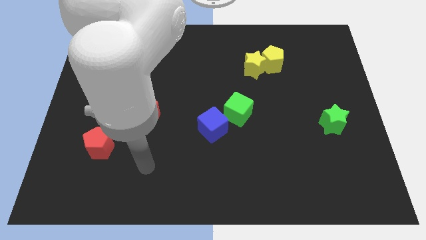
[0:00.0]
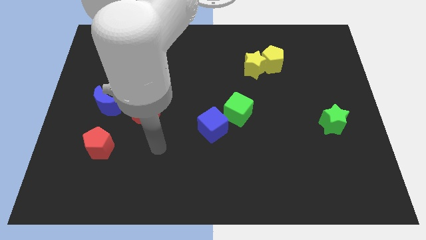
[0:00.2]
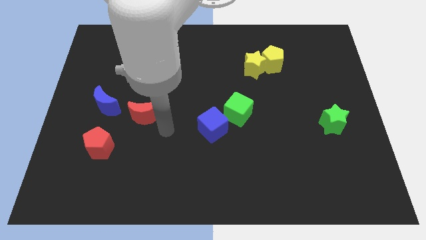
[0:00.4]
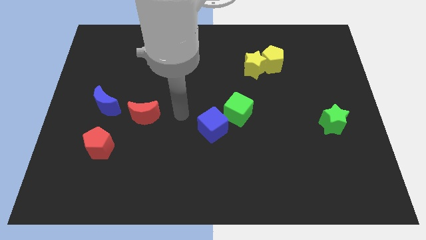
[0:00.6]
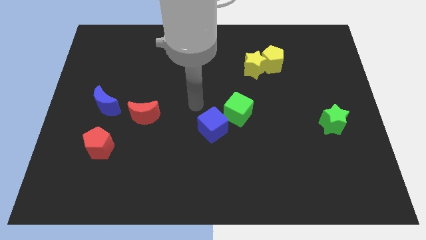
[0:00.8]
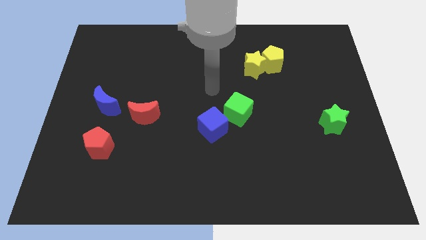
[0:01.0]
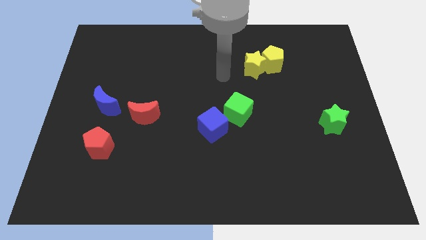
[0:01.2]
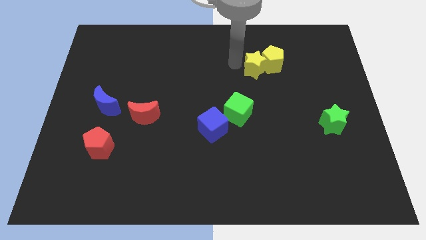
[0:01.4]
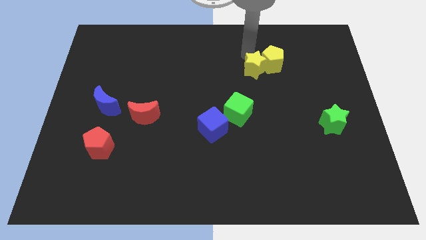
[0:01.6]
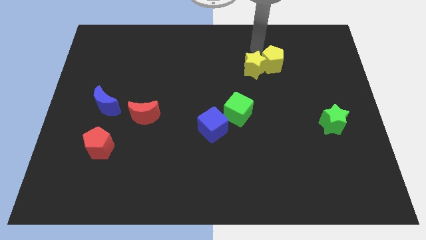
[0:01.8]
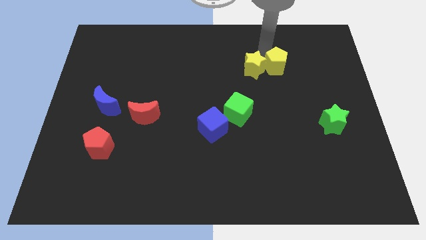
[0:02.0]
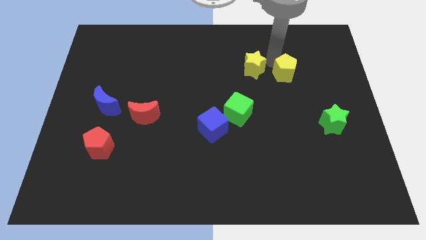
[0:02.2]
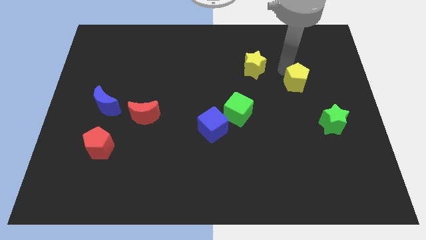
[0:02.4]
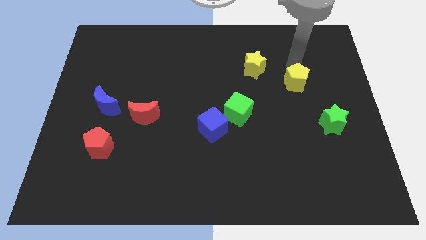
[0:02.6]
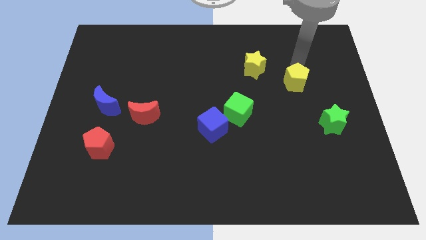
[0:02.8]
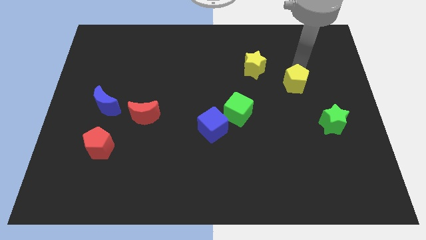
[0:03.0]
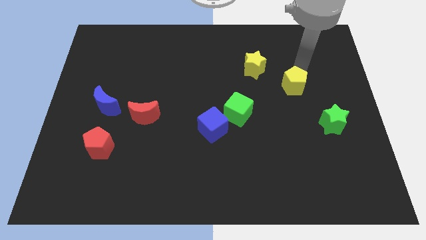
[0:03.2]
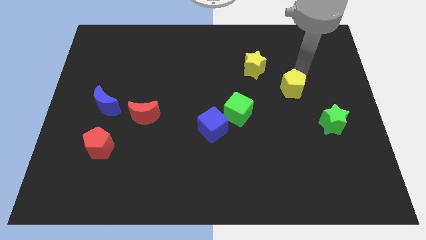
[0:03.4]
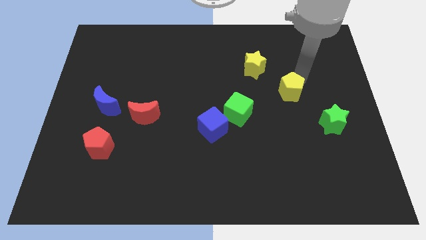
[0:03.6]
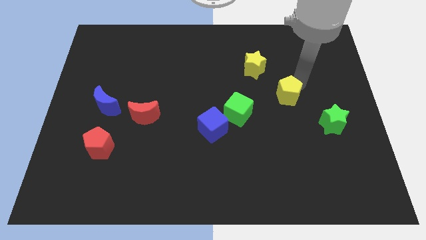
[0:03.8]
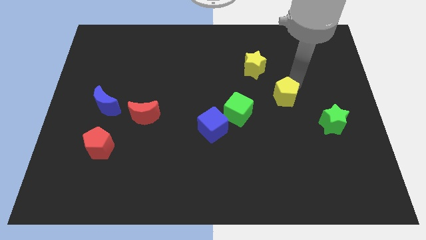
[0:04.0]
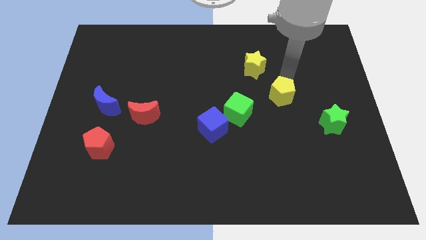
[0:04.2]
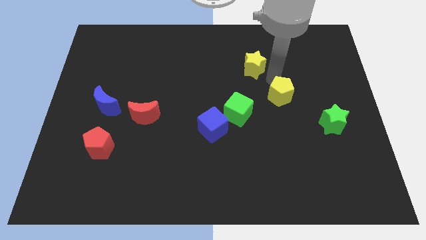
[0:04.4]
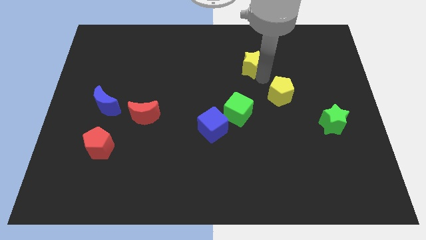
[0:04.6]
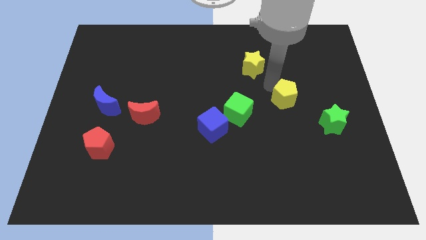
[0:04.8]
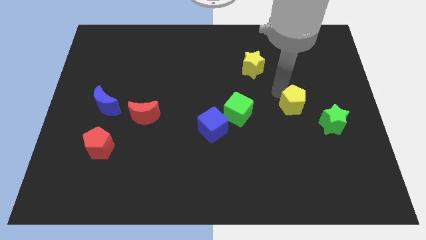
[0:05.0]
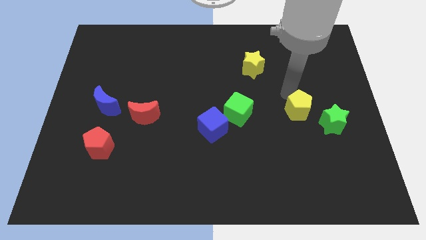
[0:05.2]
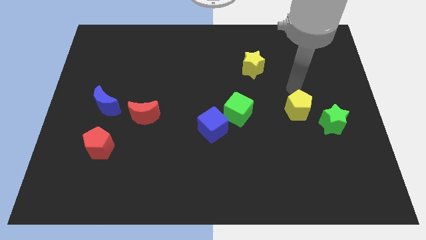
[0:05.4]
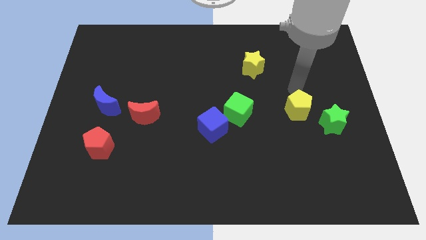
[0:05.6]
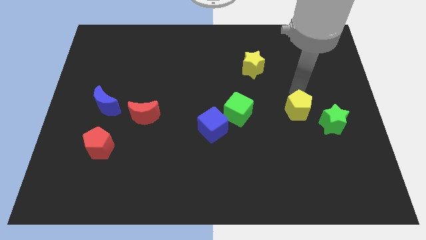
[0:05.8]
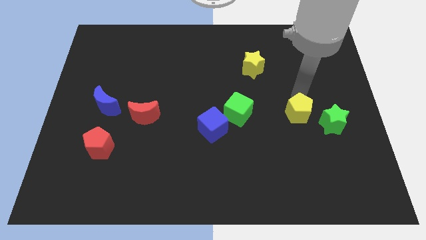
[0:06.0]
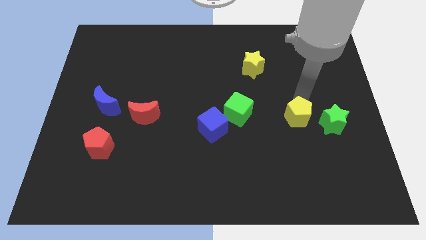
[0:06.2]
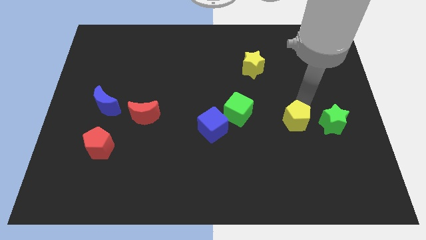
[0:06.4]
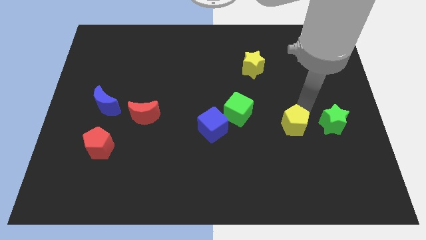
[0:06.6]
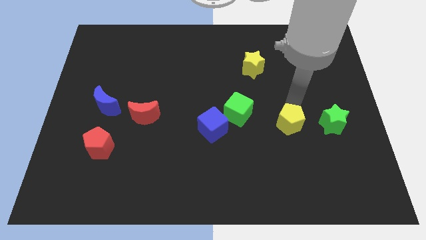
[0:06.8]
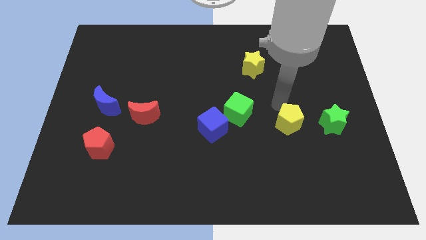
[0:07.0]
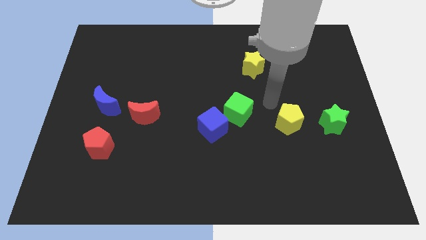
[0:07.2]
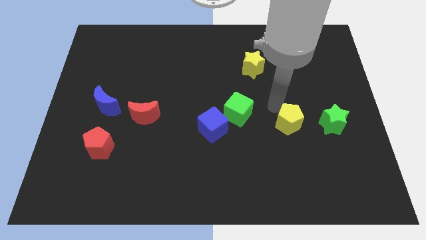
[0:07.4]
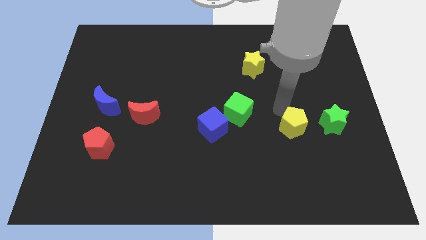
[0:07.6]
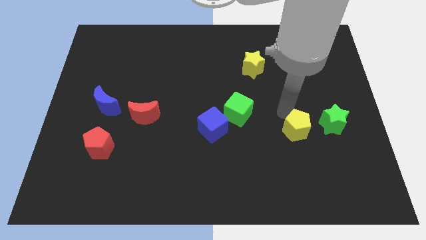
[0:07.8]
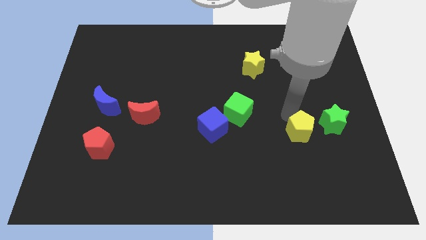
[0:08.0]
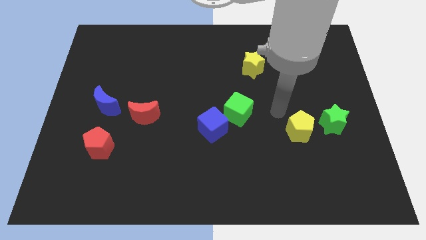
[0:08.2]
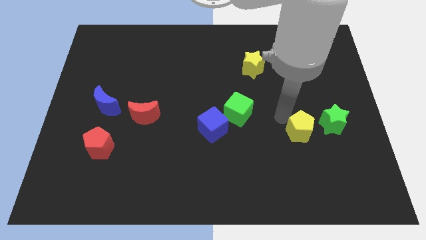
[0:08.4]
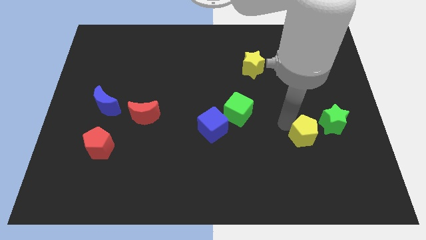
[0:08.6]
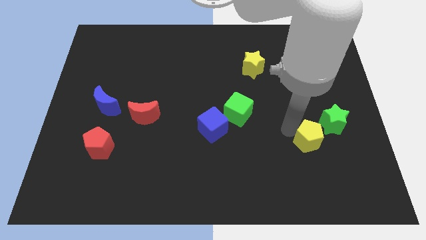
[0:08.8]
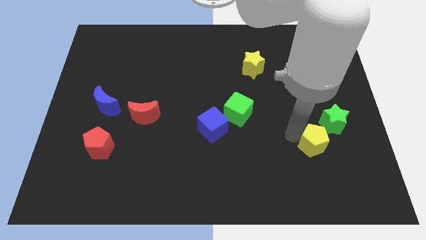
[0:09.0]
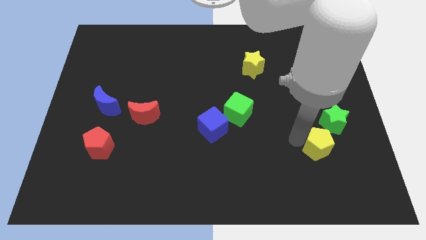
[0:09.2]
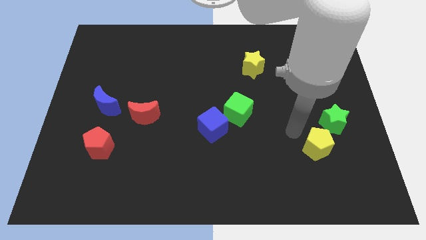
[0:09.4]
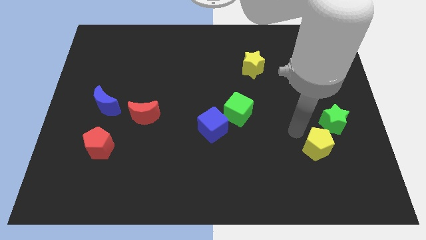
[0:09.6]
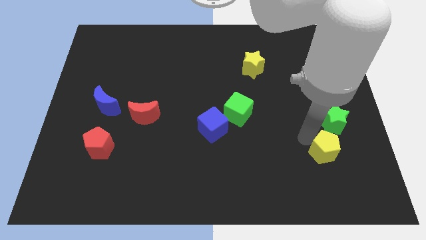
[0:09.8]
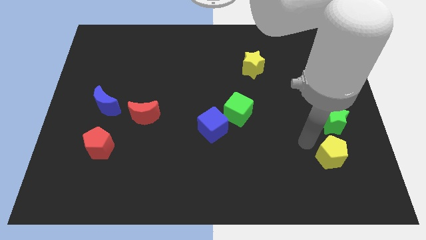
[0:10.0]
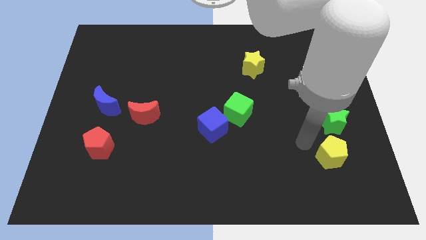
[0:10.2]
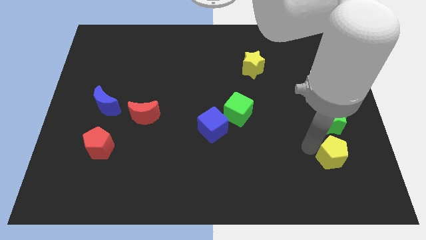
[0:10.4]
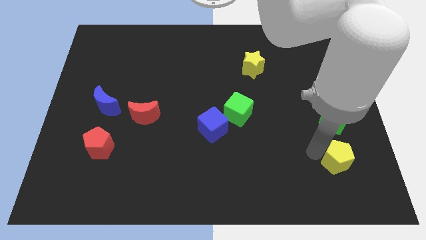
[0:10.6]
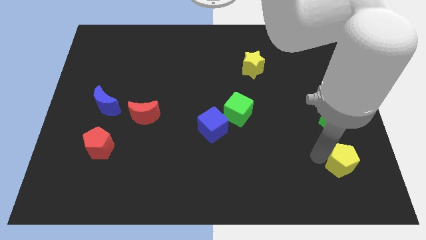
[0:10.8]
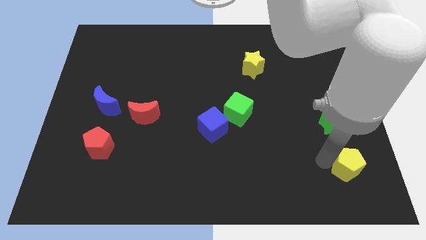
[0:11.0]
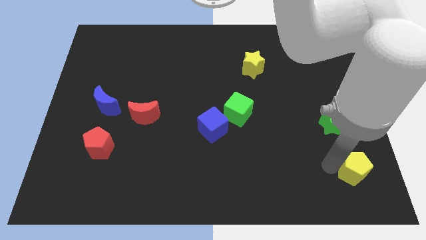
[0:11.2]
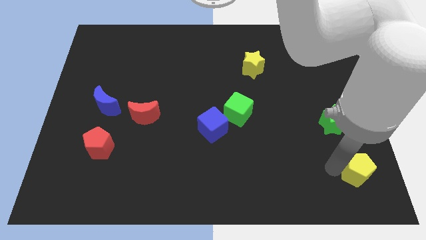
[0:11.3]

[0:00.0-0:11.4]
push the yellow pentagon to the bottom right corner
